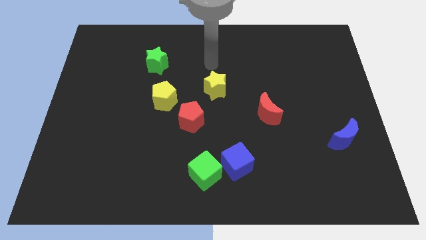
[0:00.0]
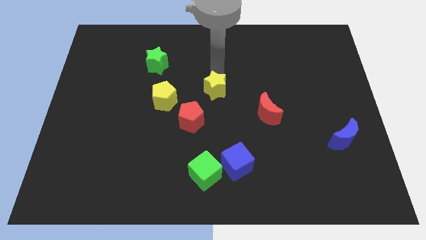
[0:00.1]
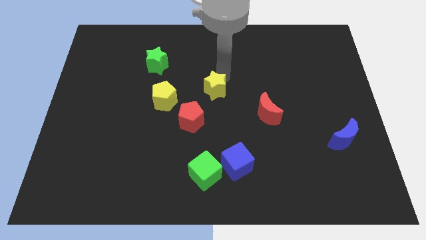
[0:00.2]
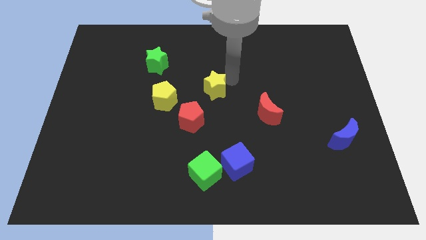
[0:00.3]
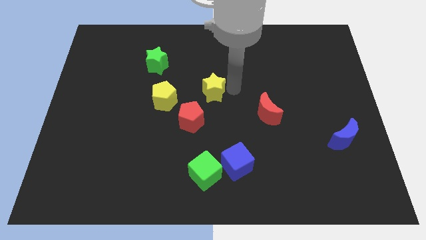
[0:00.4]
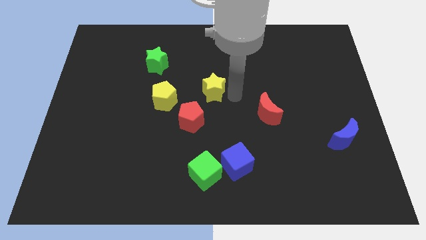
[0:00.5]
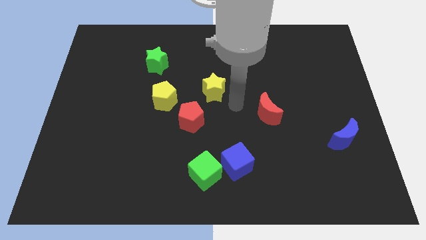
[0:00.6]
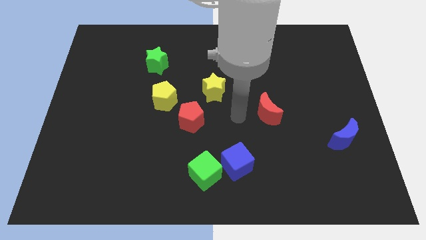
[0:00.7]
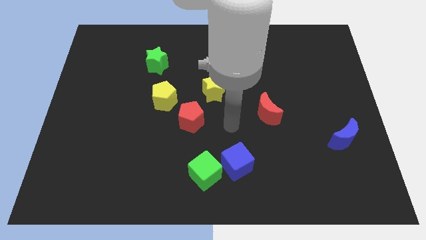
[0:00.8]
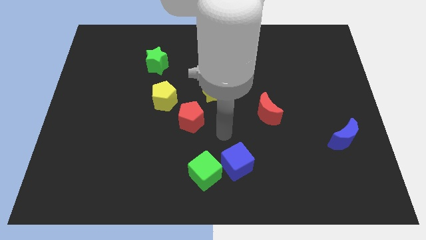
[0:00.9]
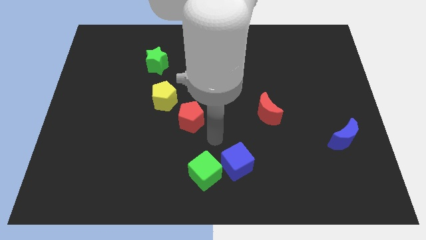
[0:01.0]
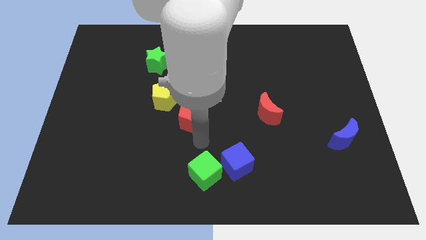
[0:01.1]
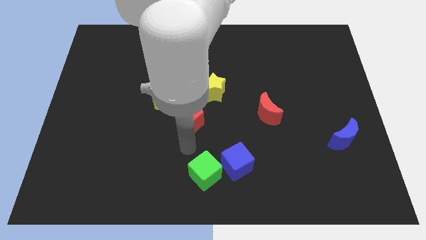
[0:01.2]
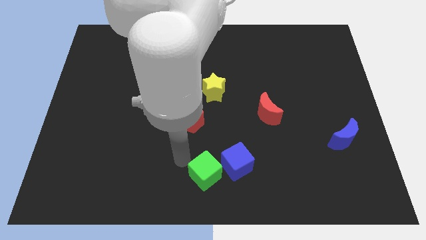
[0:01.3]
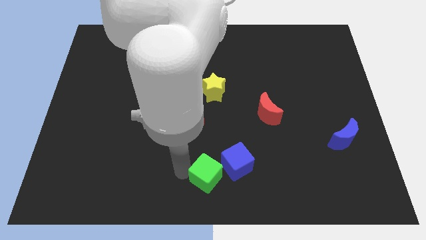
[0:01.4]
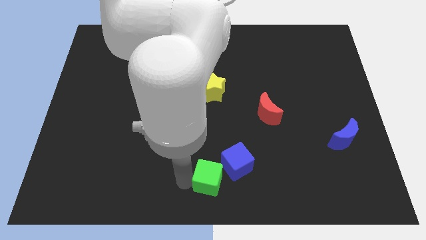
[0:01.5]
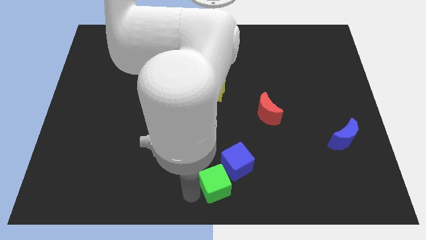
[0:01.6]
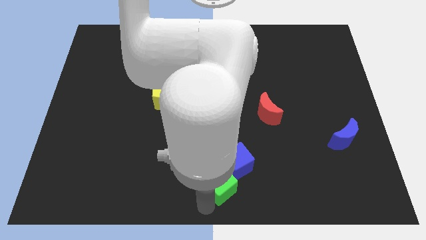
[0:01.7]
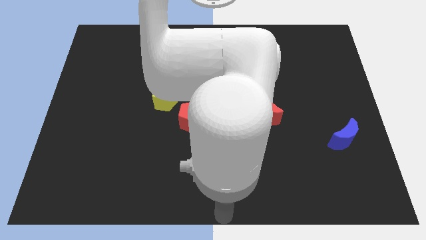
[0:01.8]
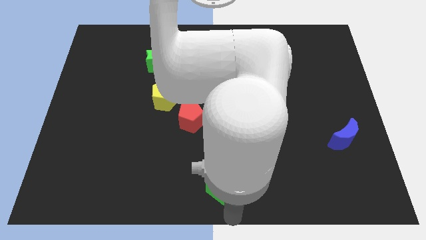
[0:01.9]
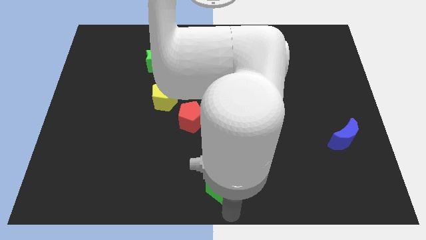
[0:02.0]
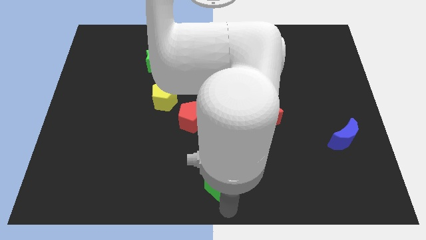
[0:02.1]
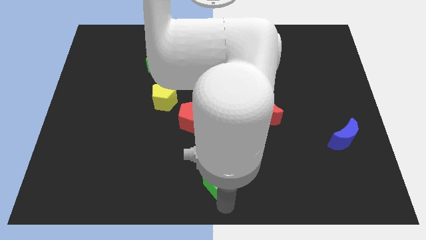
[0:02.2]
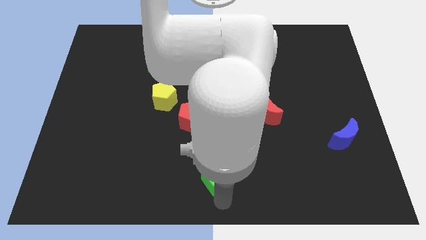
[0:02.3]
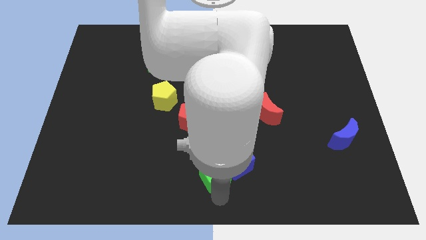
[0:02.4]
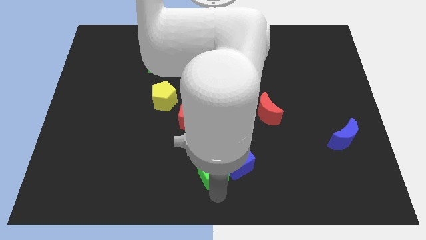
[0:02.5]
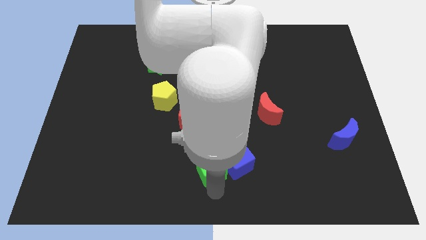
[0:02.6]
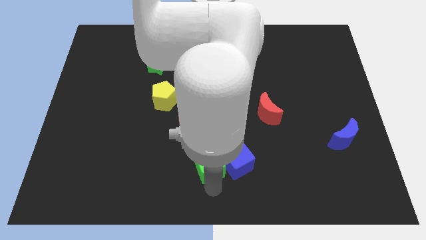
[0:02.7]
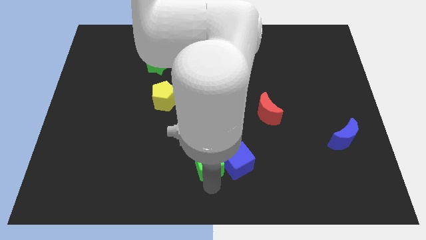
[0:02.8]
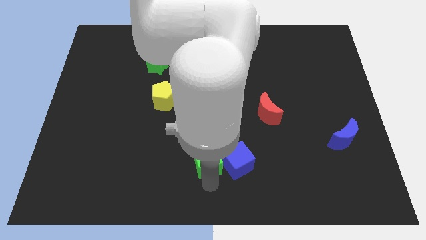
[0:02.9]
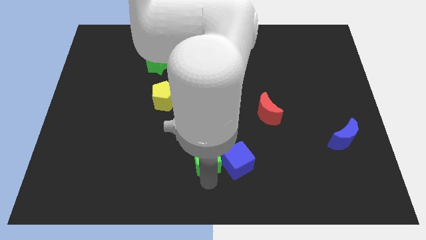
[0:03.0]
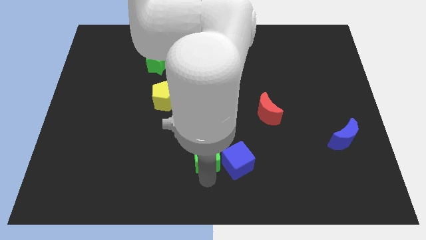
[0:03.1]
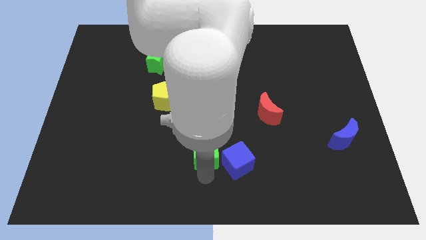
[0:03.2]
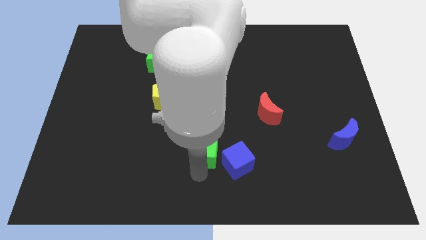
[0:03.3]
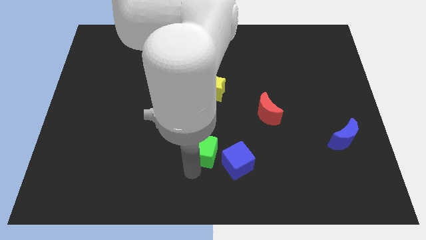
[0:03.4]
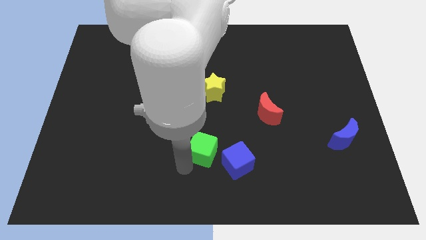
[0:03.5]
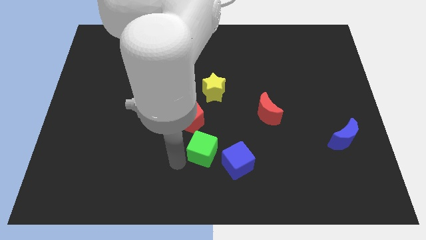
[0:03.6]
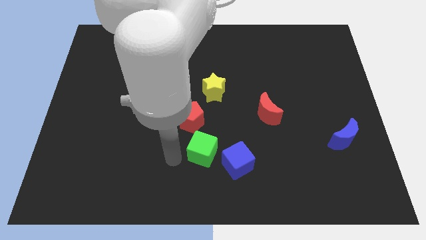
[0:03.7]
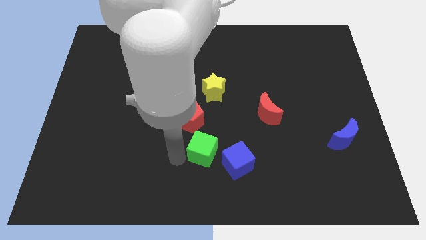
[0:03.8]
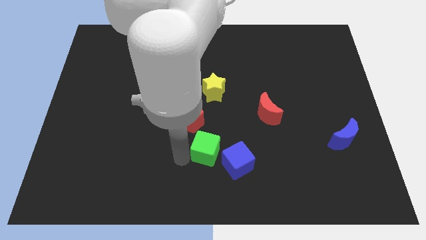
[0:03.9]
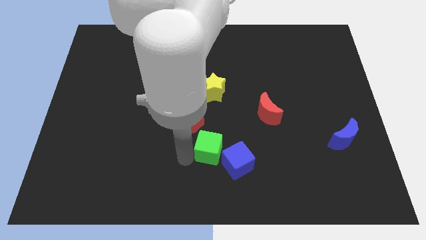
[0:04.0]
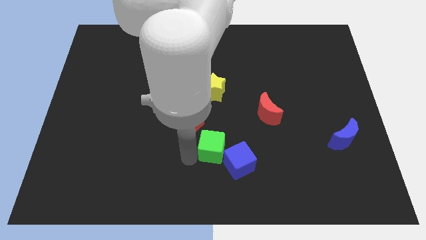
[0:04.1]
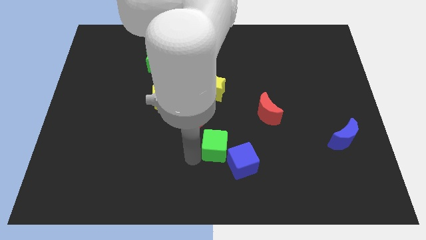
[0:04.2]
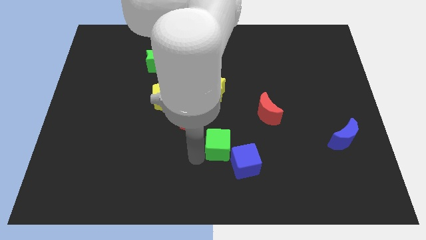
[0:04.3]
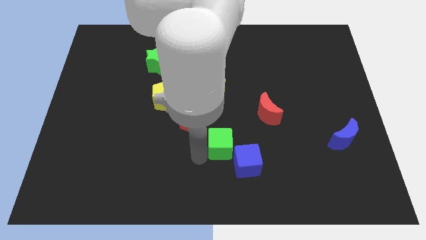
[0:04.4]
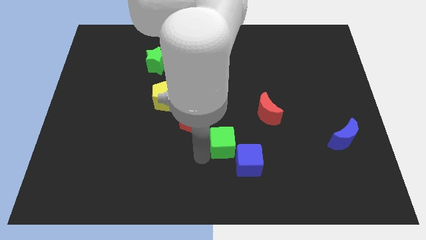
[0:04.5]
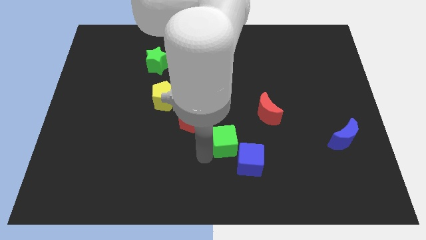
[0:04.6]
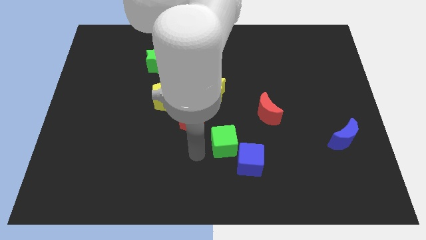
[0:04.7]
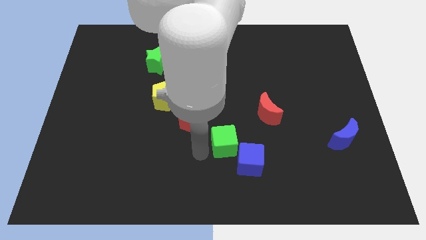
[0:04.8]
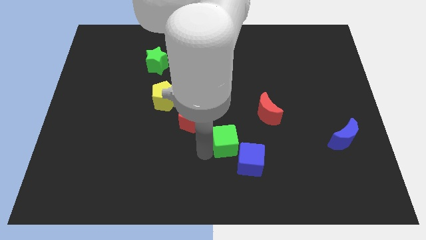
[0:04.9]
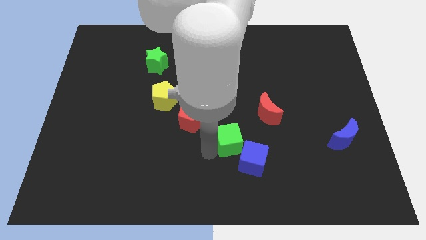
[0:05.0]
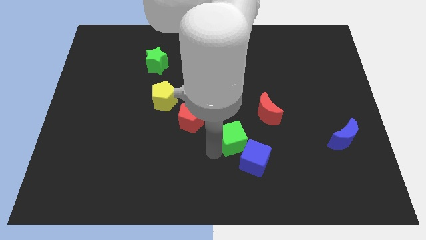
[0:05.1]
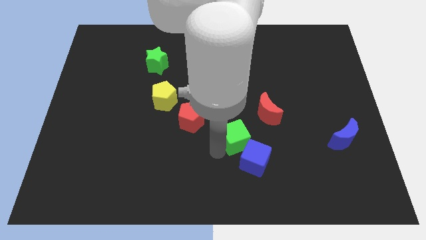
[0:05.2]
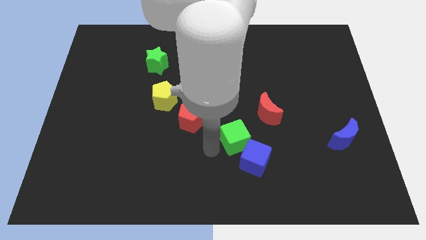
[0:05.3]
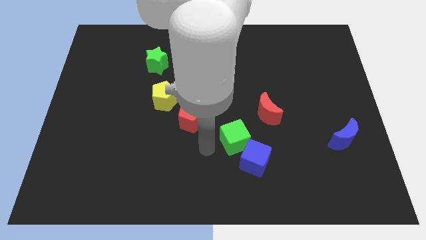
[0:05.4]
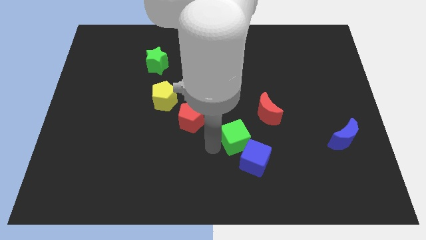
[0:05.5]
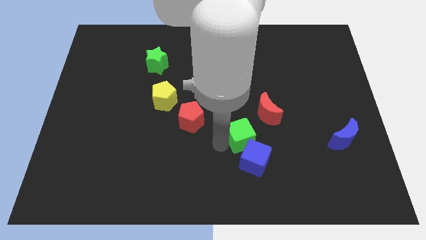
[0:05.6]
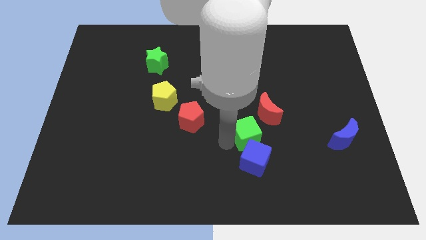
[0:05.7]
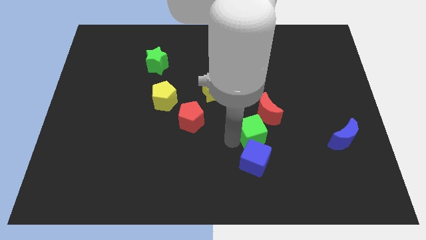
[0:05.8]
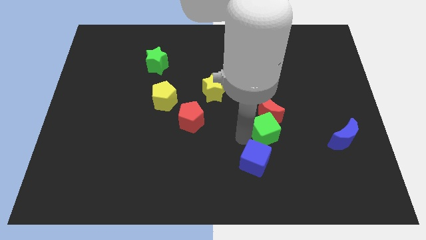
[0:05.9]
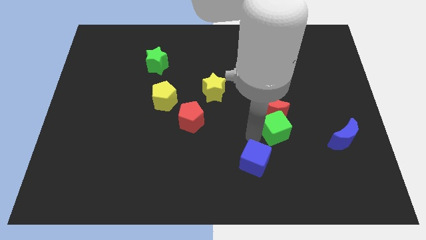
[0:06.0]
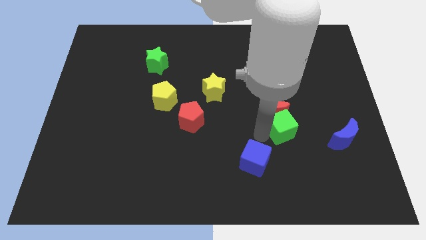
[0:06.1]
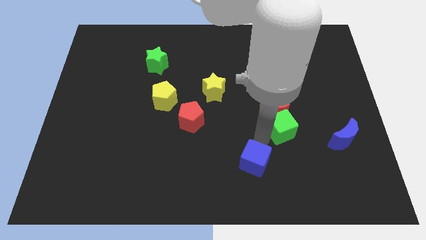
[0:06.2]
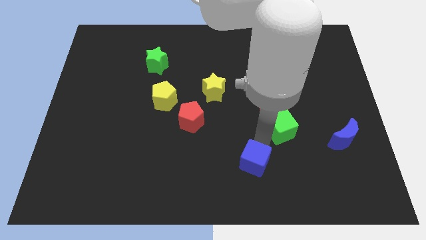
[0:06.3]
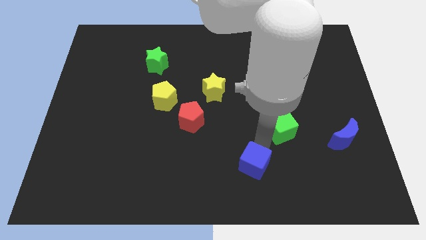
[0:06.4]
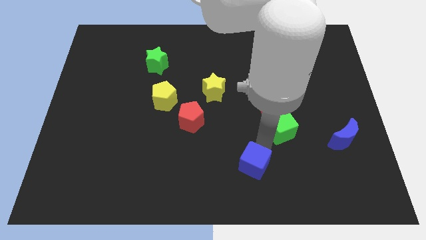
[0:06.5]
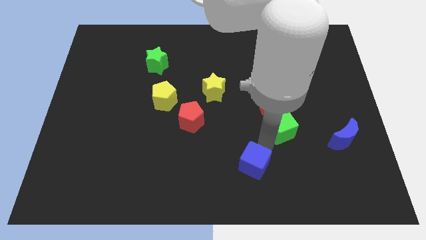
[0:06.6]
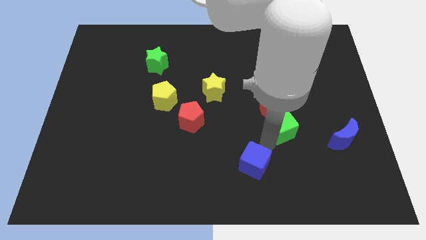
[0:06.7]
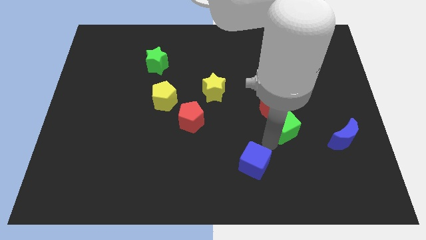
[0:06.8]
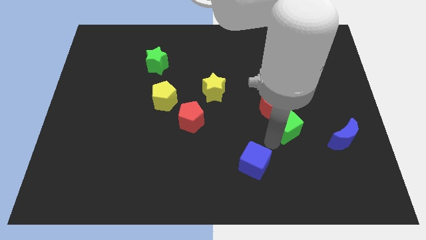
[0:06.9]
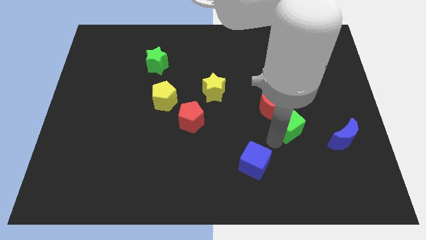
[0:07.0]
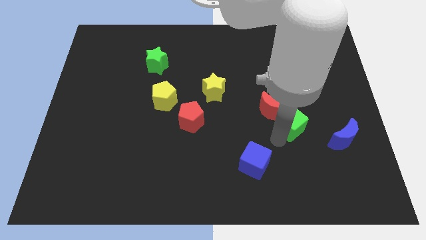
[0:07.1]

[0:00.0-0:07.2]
put the green cube to the right side of the red moon
